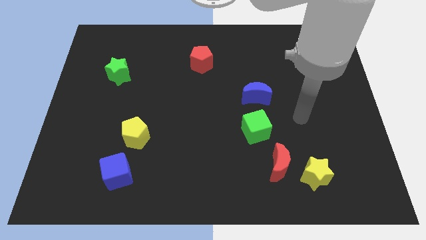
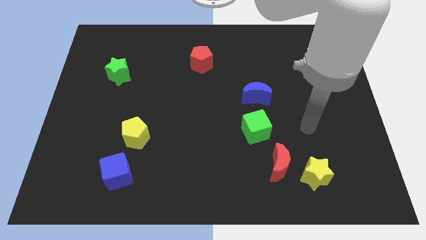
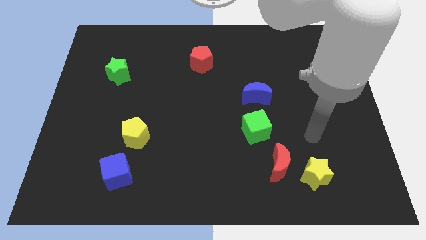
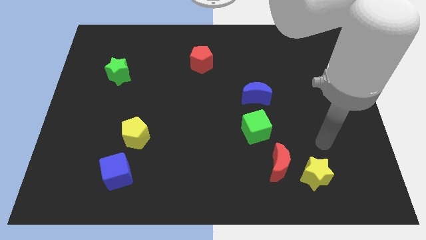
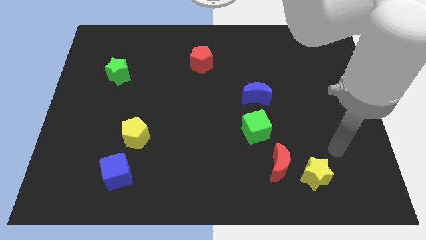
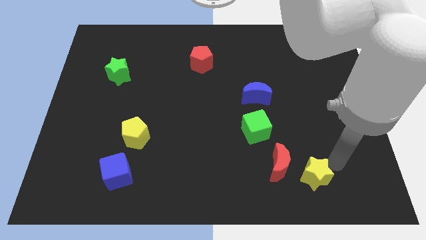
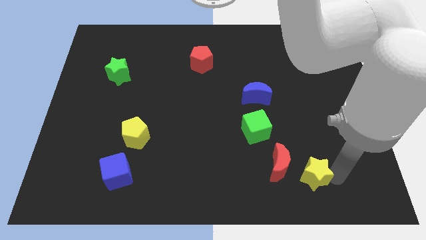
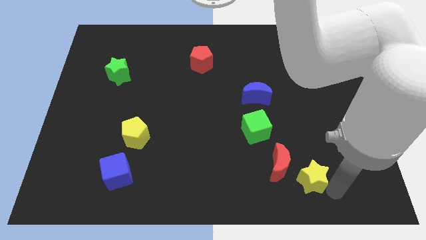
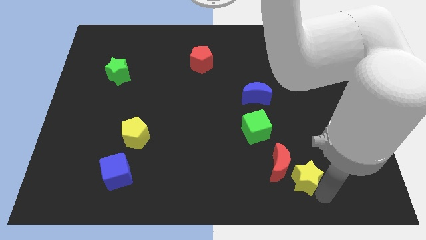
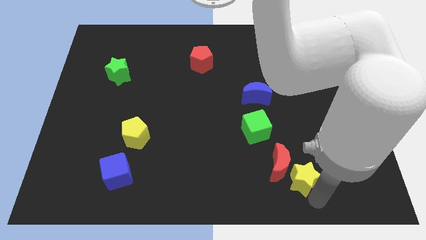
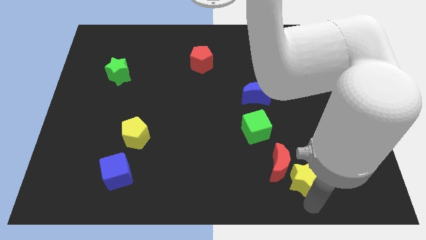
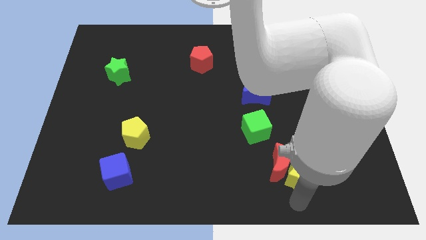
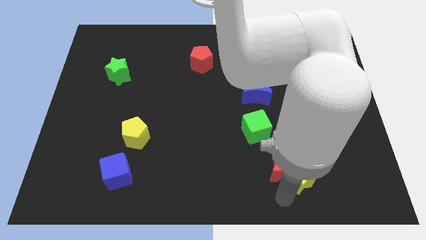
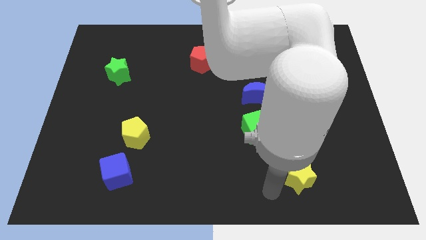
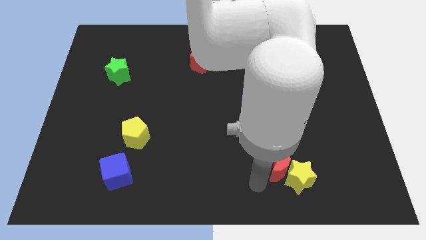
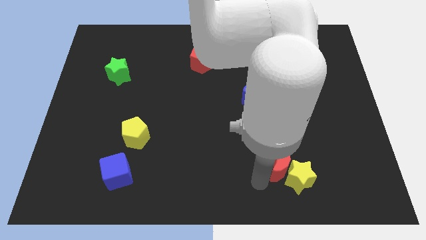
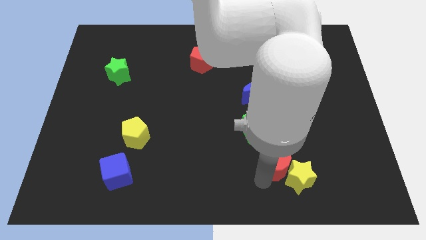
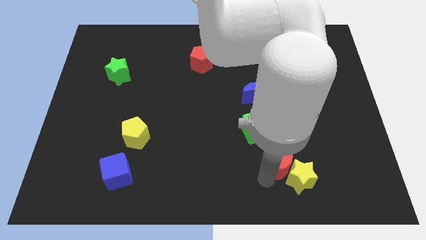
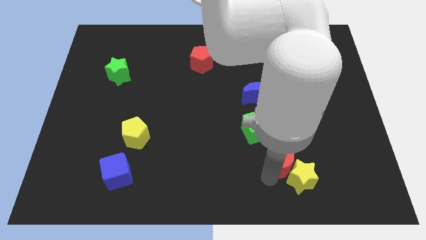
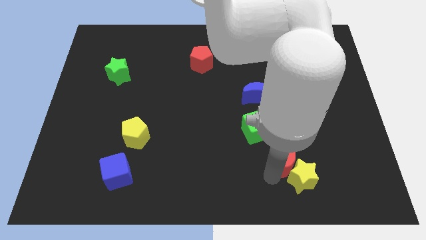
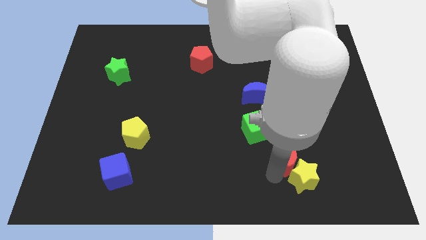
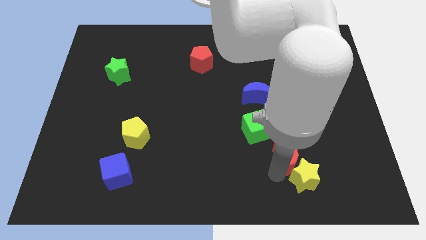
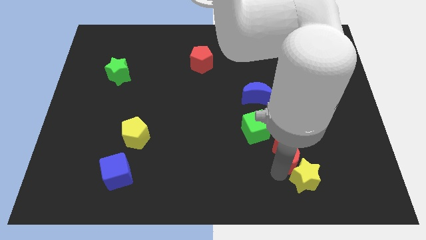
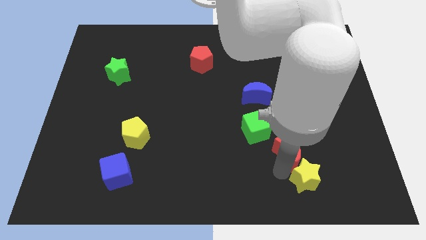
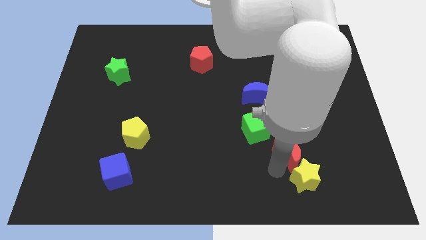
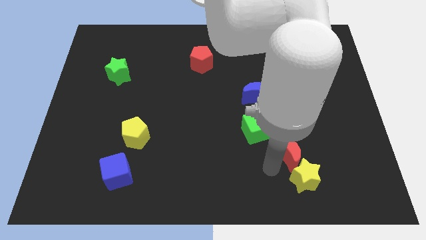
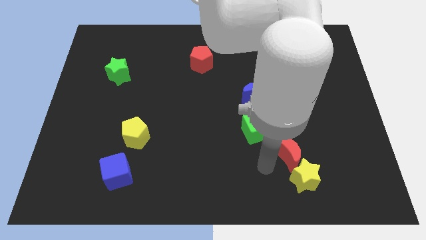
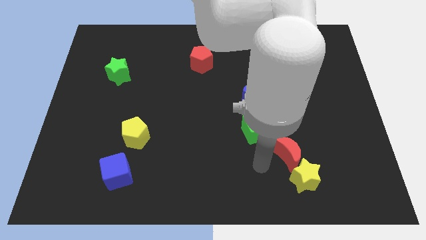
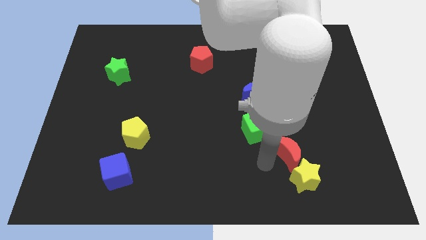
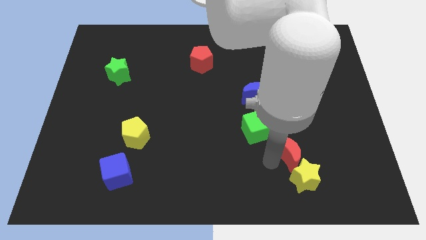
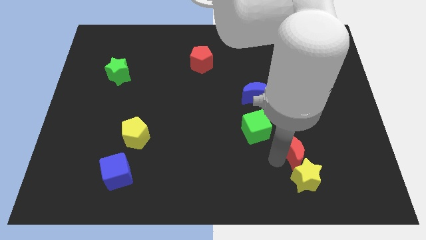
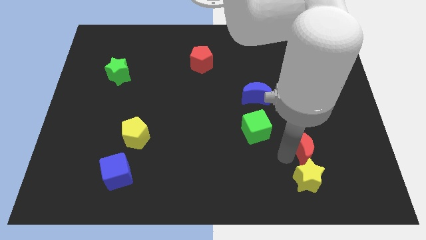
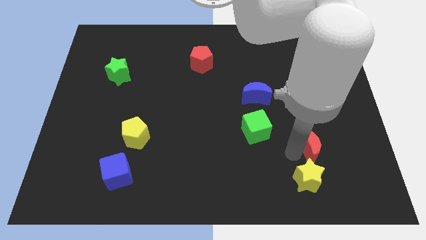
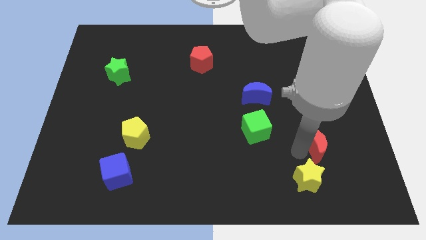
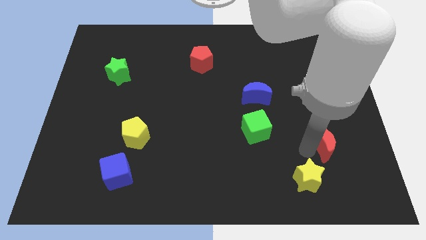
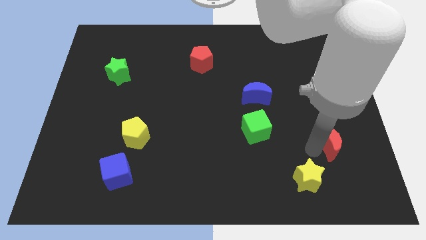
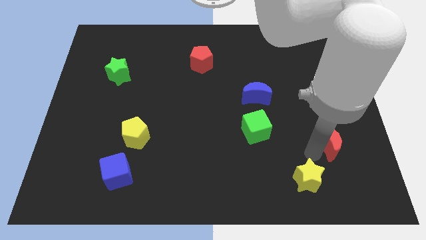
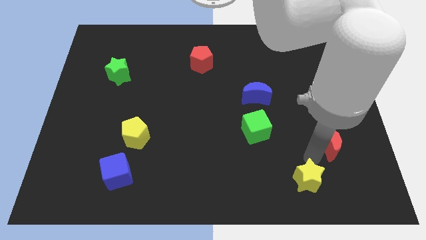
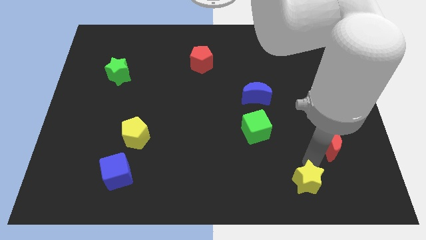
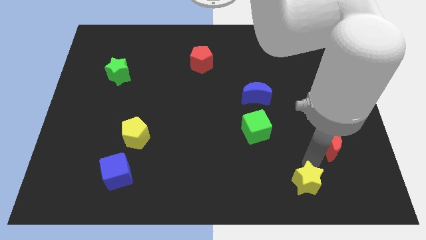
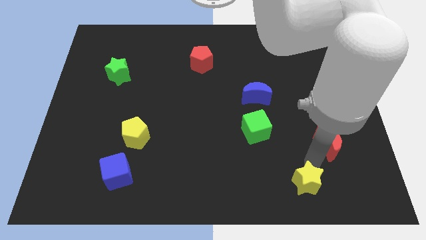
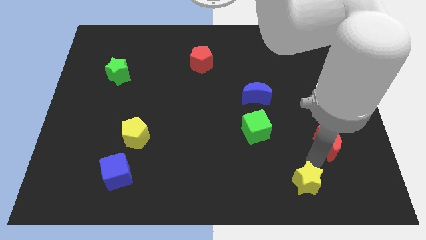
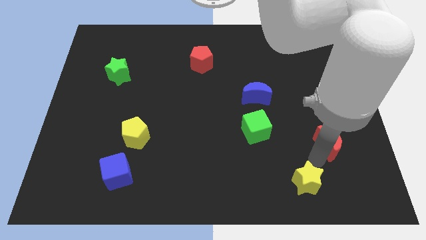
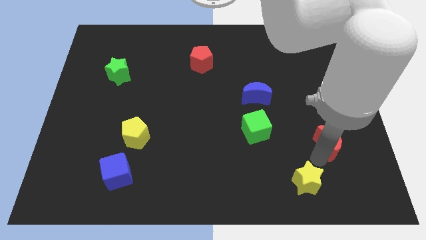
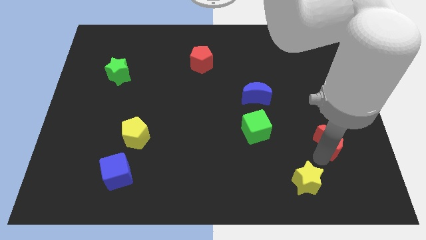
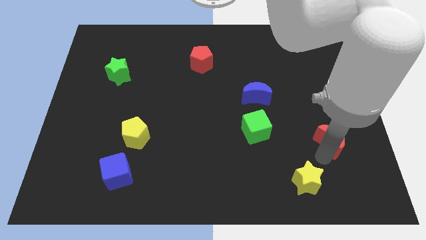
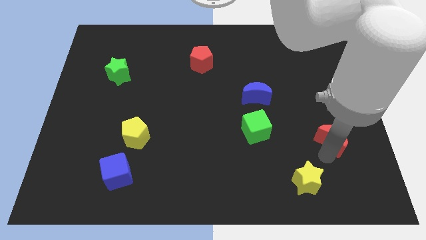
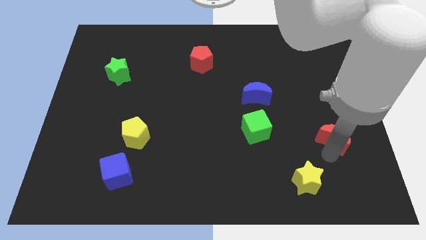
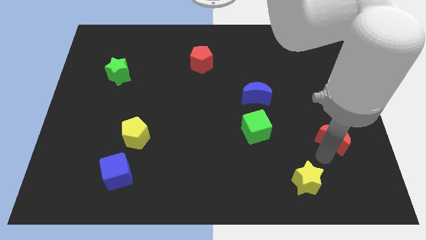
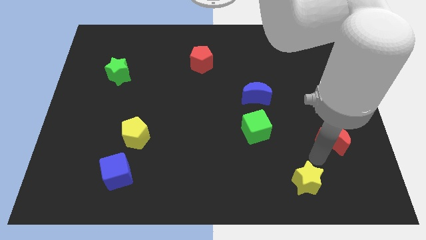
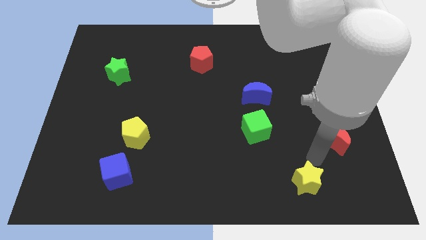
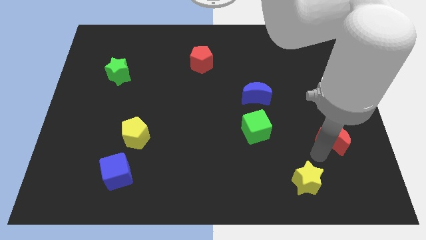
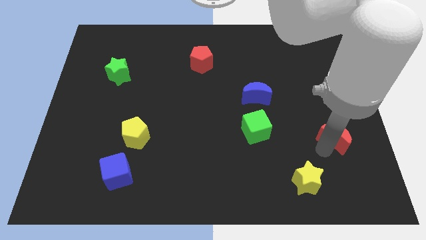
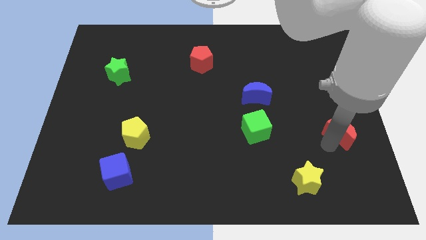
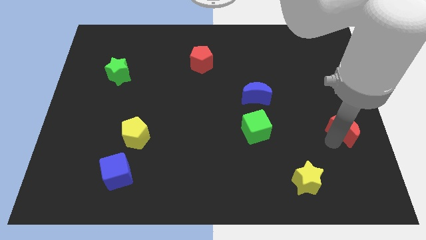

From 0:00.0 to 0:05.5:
put the red moon to the right side of the board

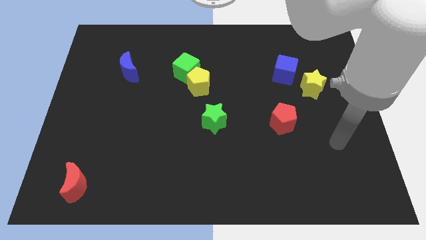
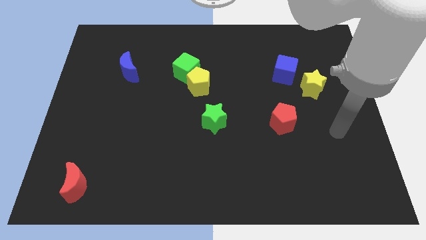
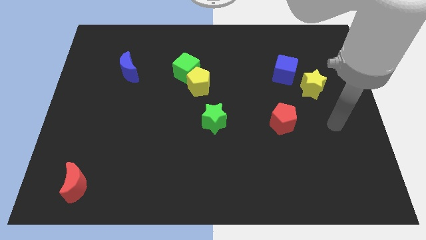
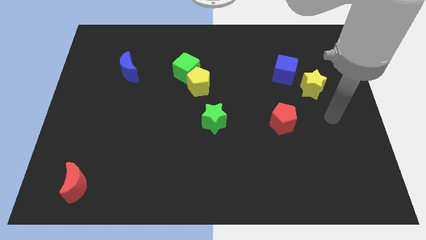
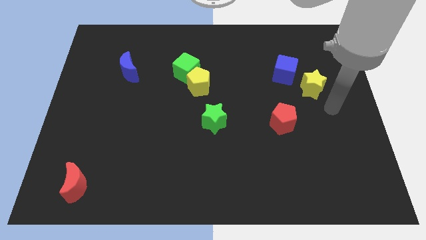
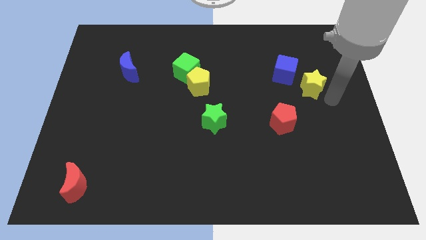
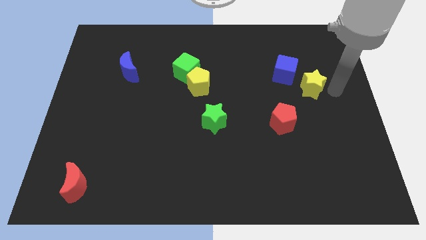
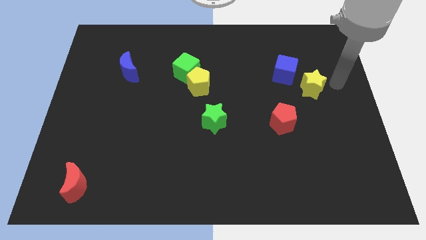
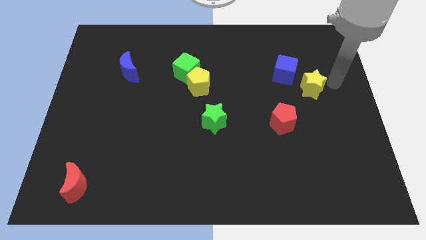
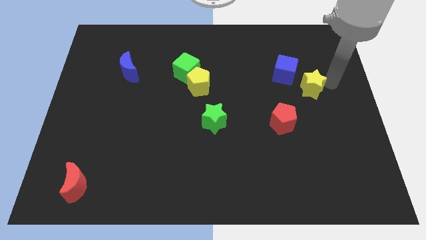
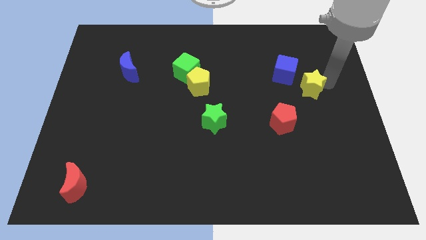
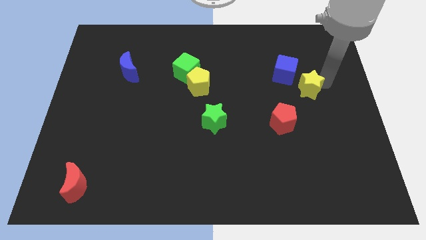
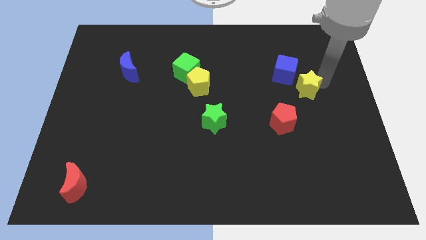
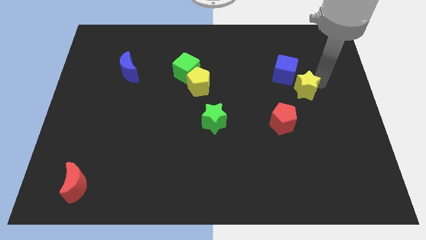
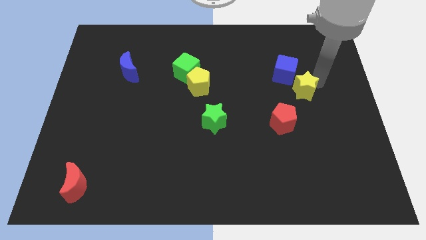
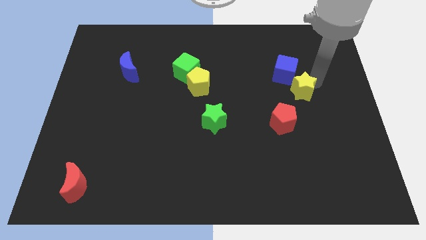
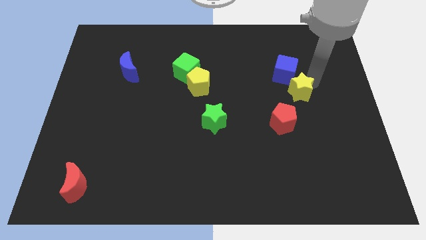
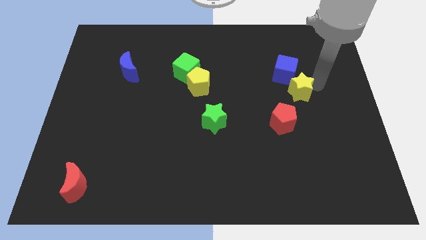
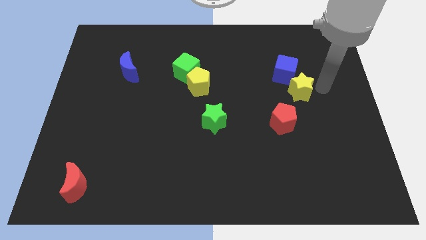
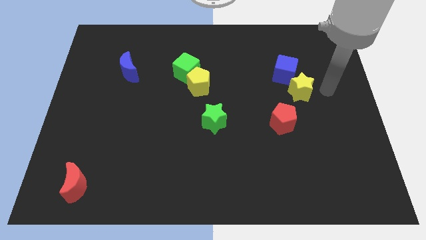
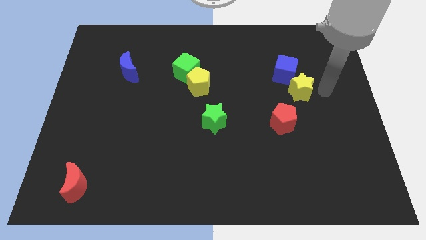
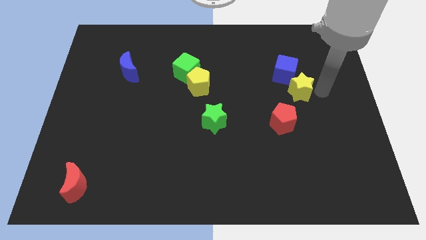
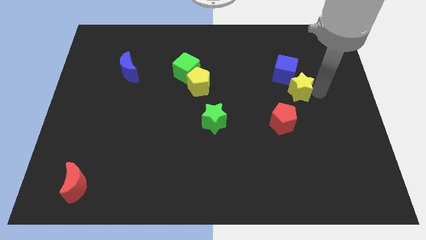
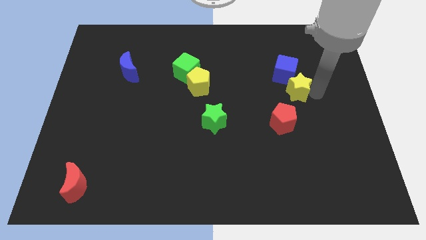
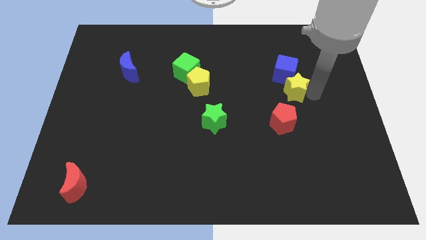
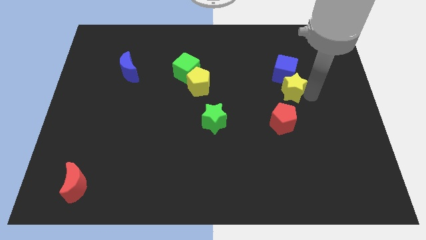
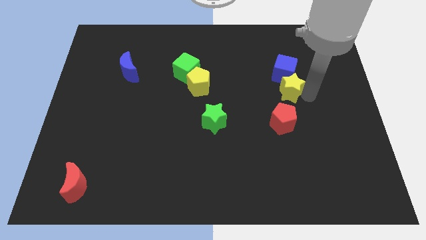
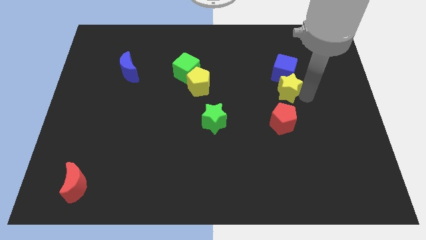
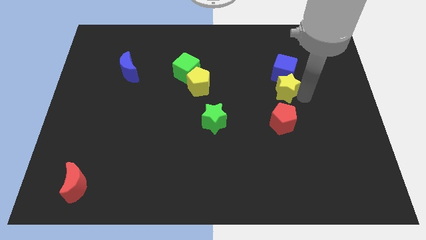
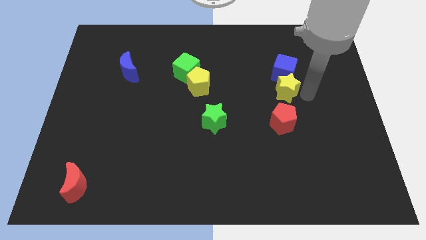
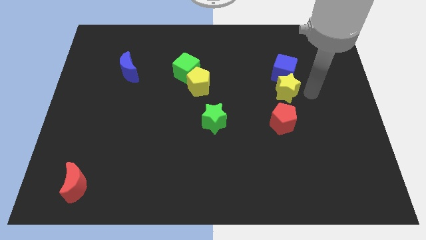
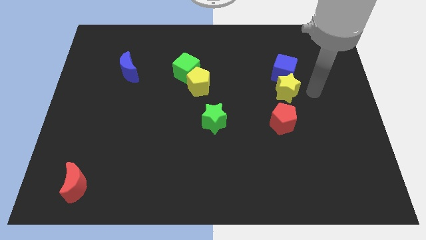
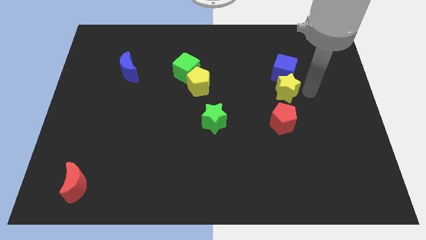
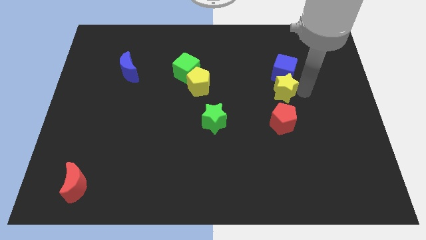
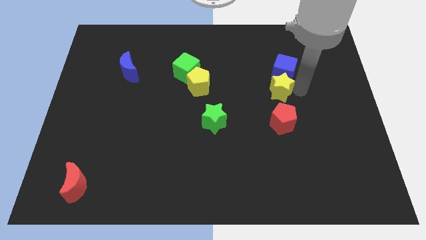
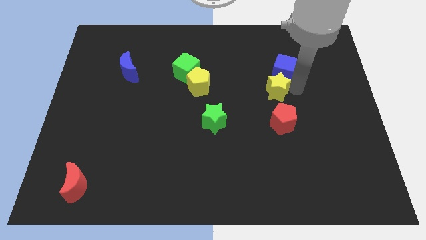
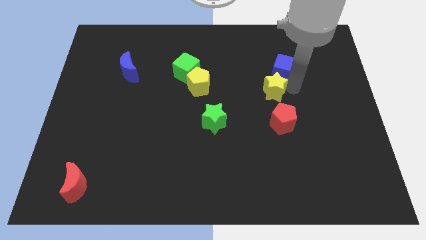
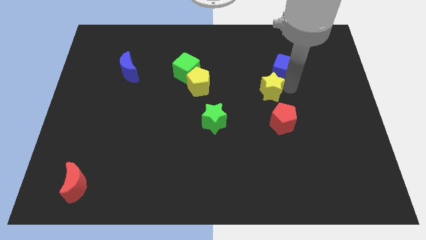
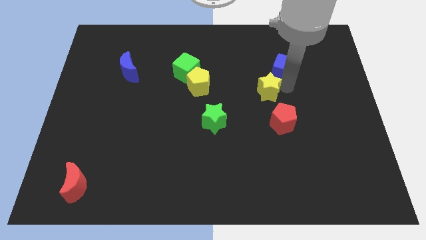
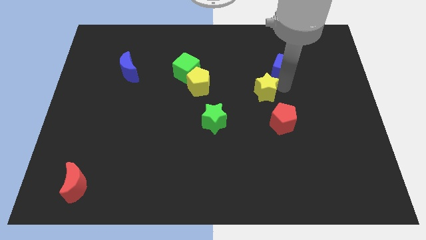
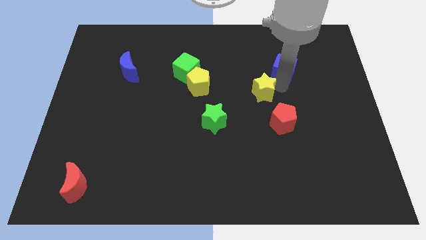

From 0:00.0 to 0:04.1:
put the yellow star to the middle of the board
